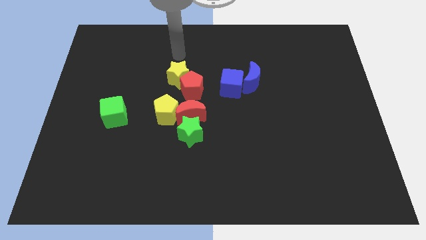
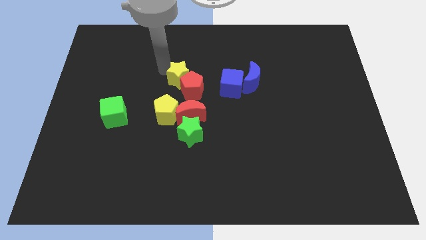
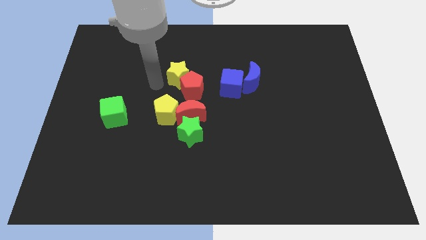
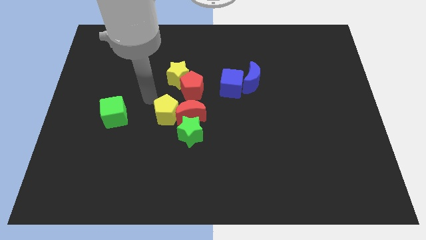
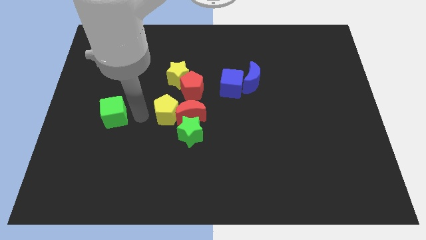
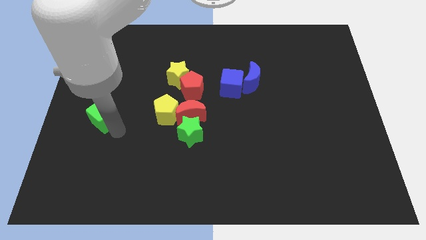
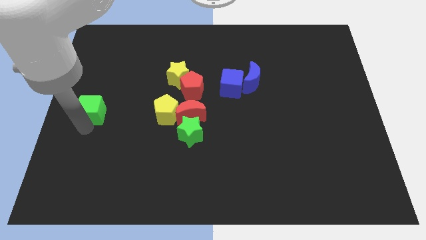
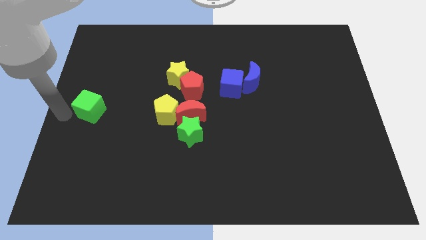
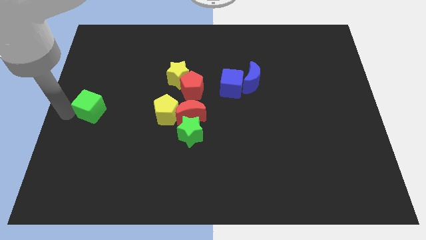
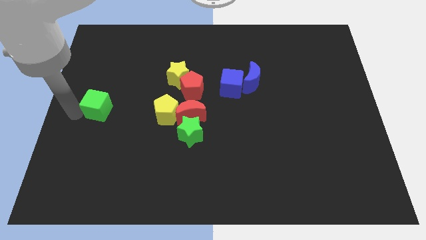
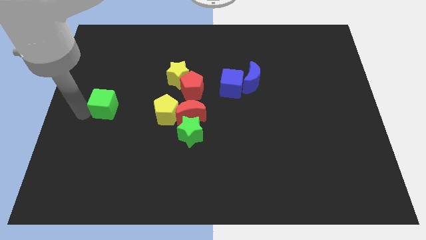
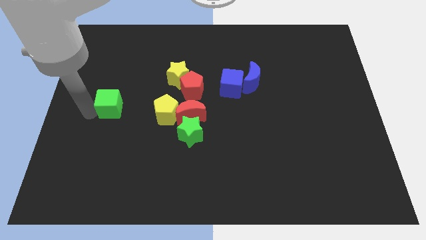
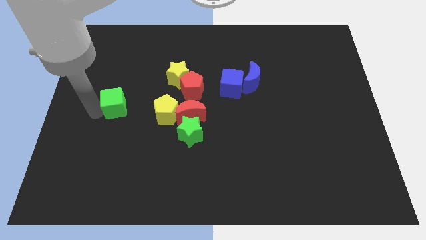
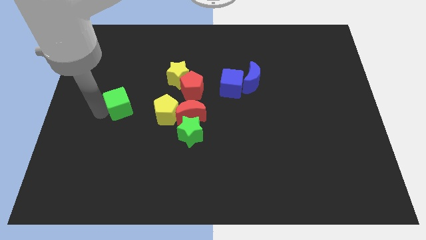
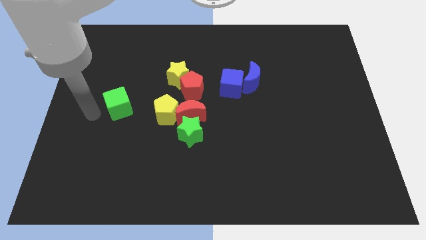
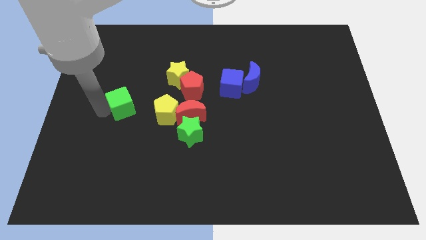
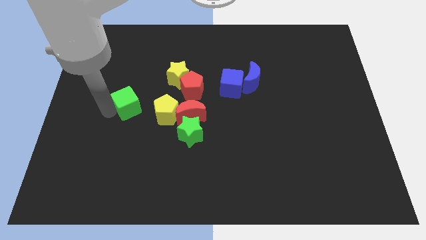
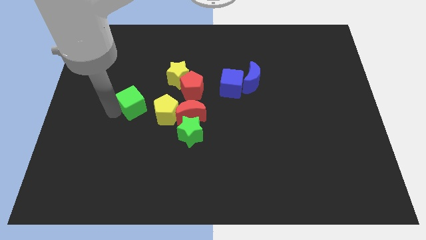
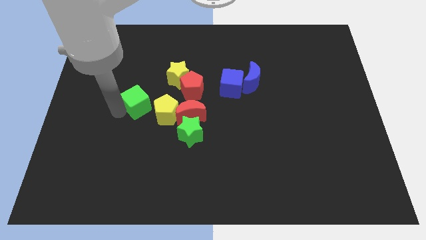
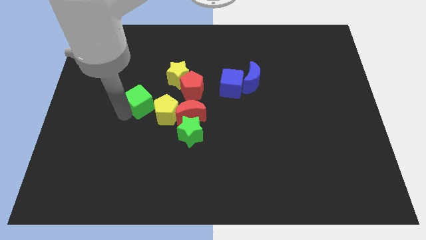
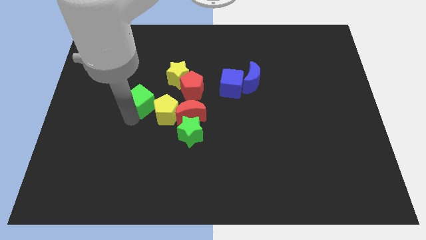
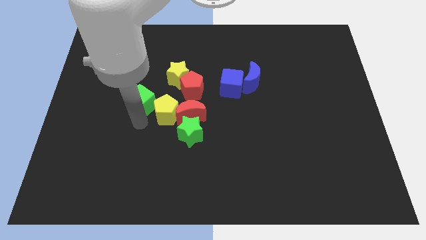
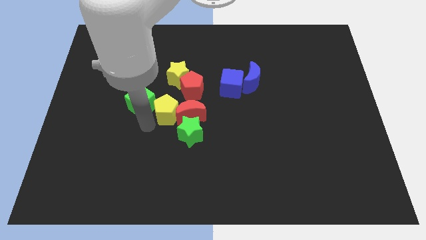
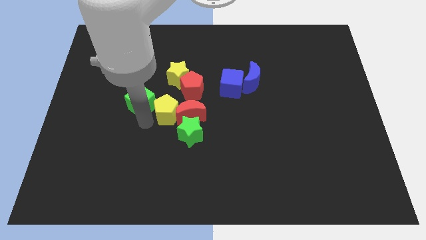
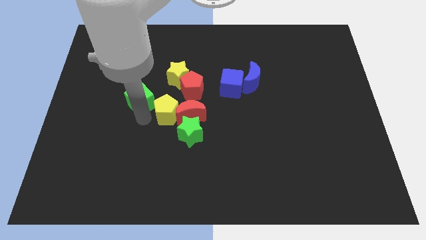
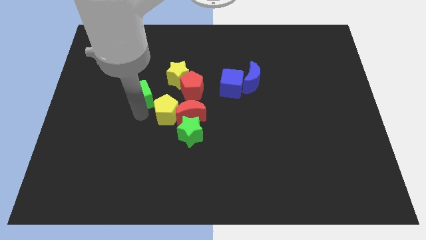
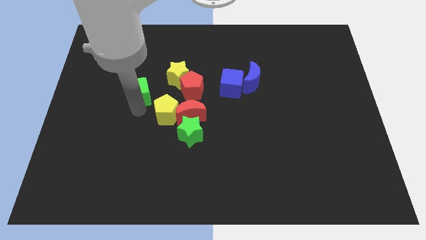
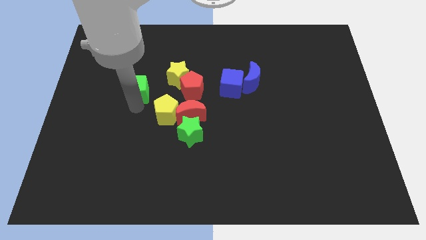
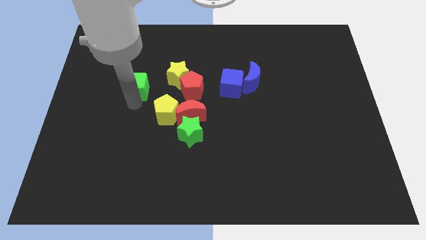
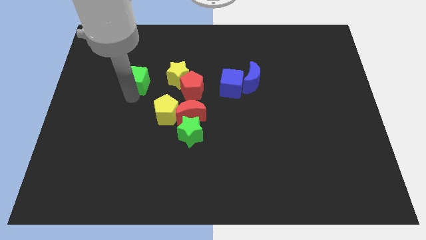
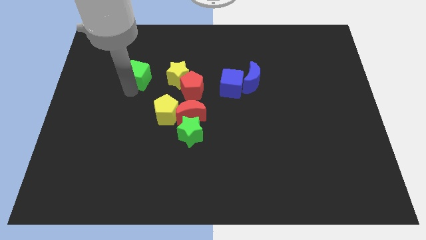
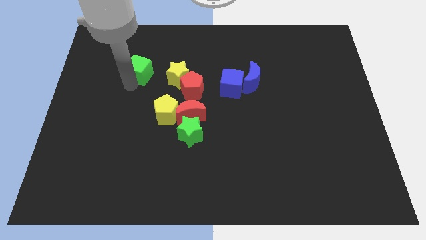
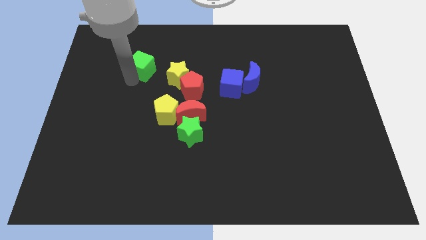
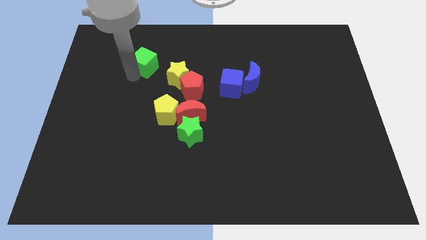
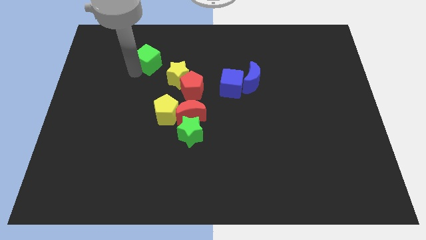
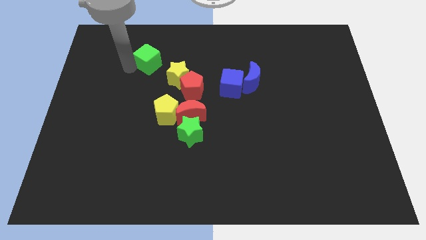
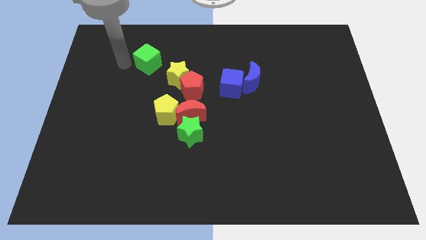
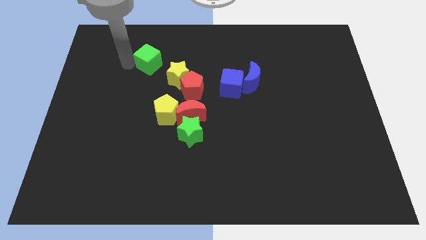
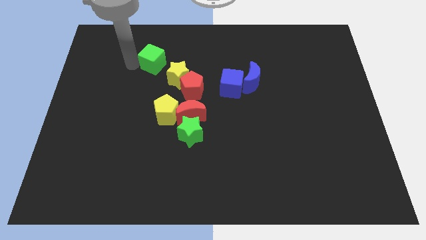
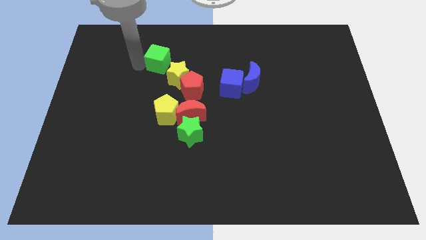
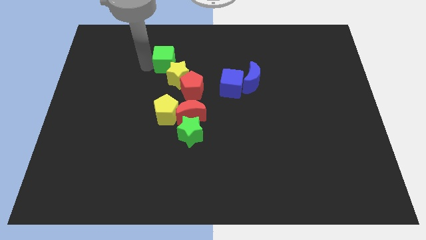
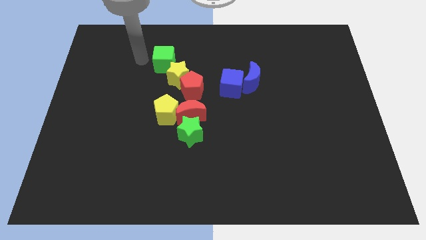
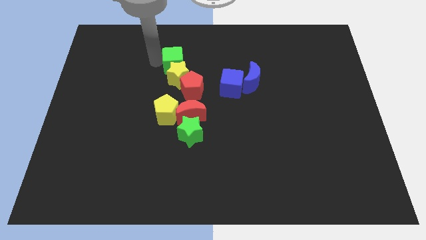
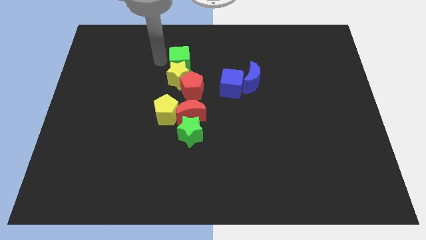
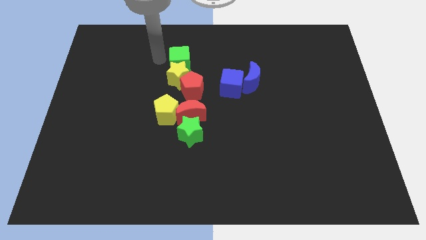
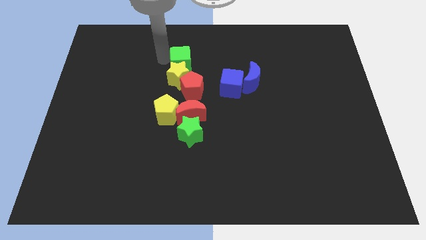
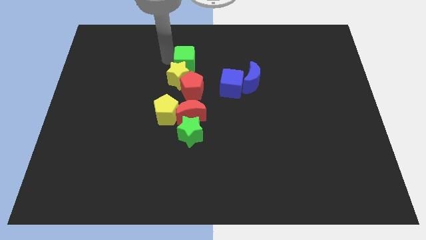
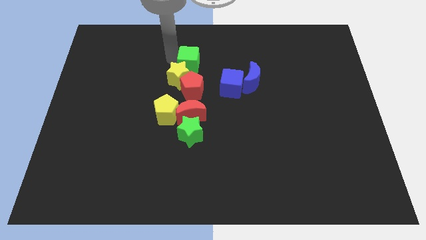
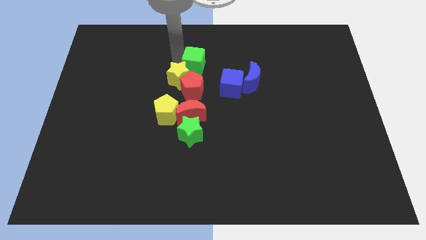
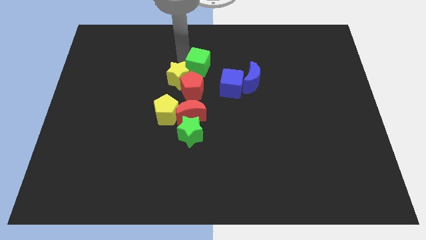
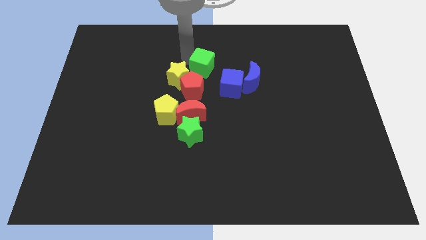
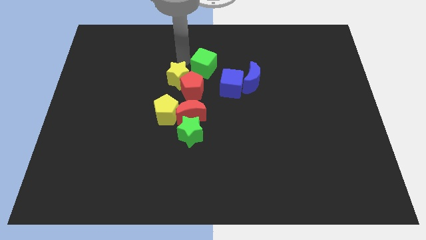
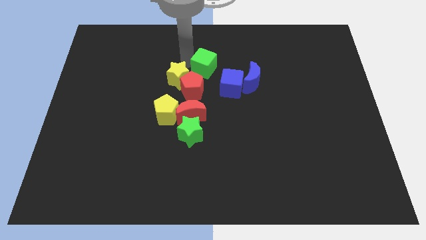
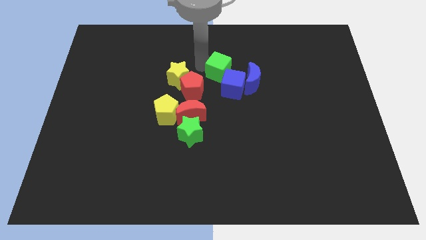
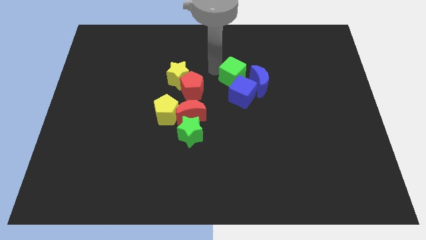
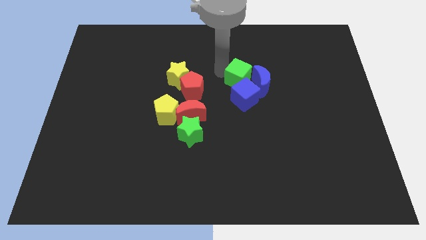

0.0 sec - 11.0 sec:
put the green cube towards the blue moon
